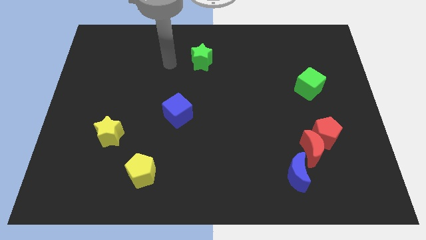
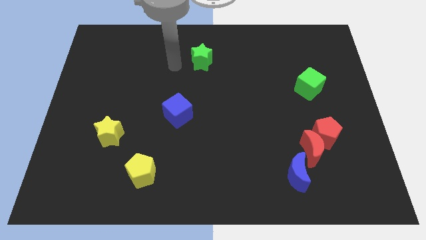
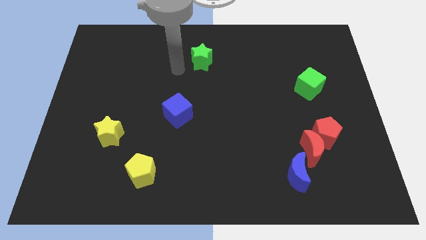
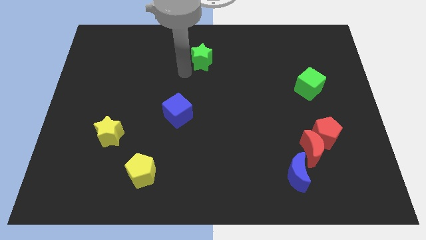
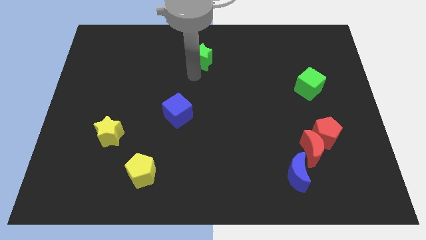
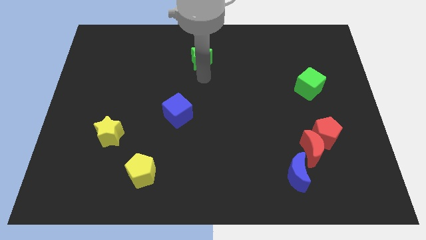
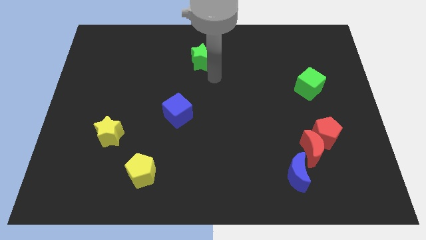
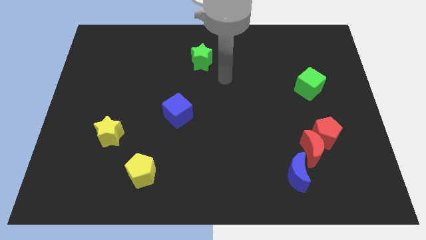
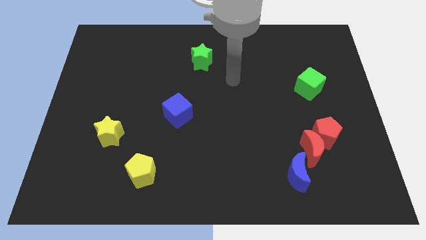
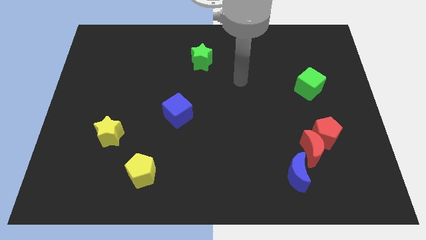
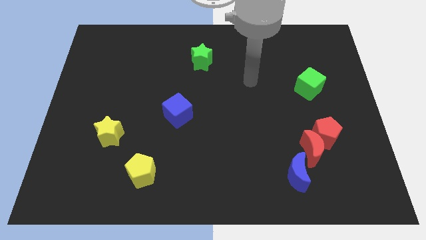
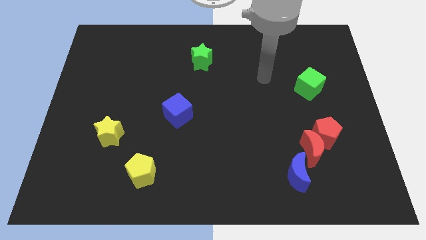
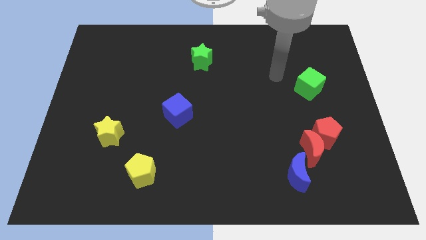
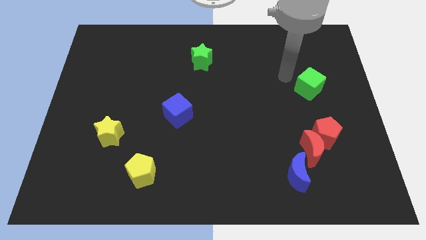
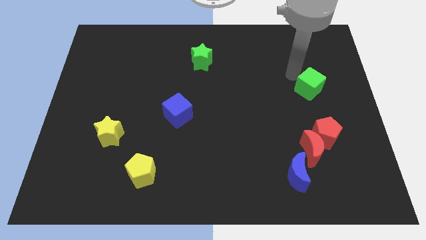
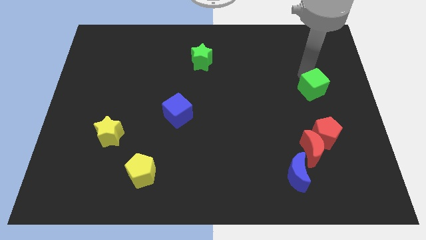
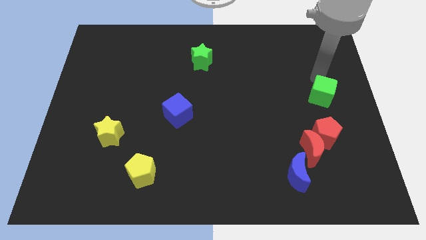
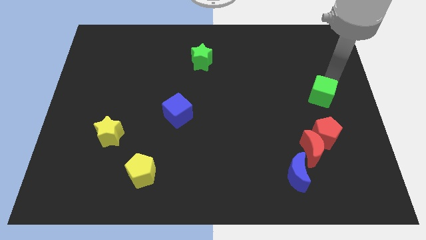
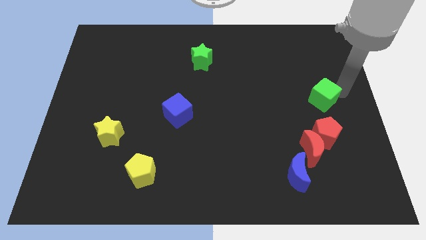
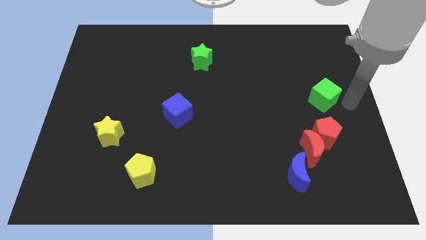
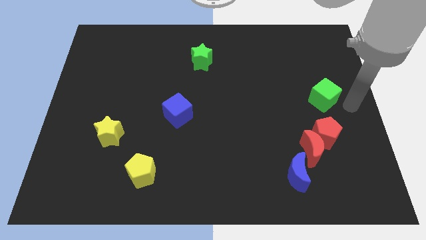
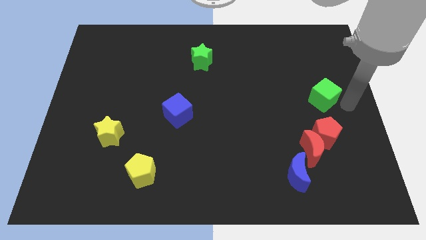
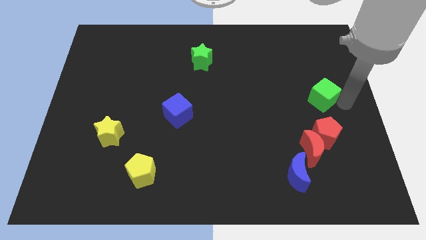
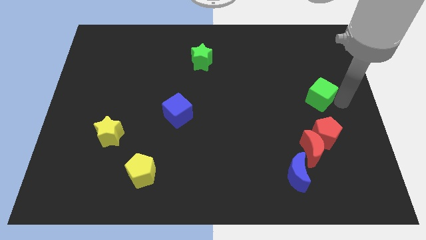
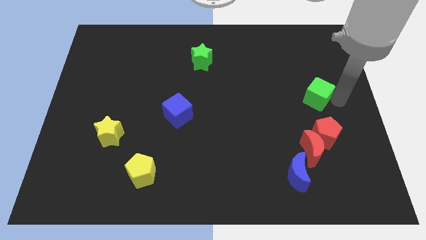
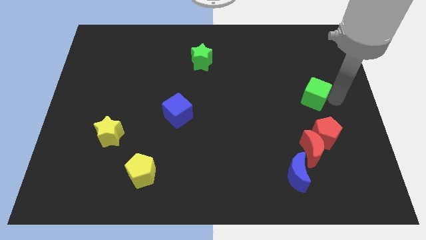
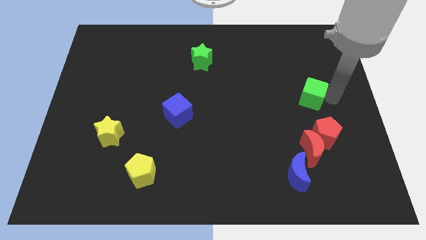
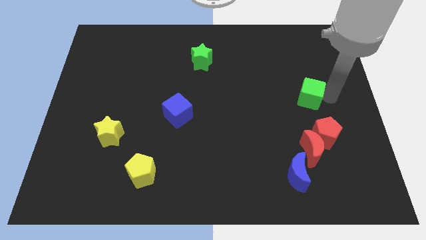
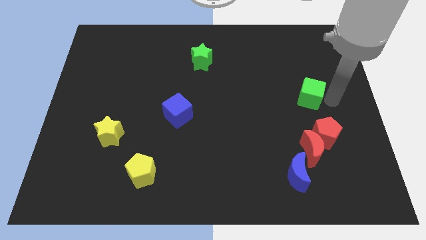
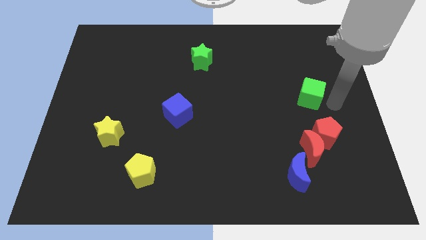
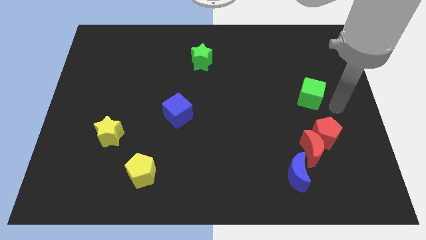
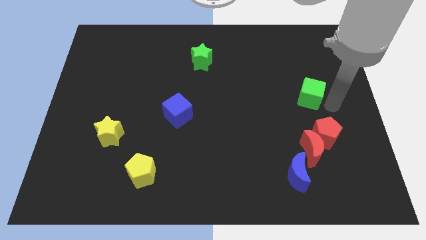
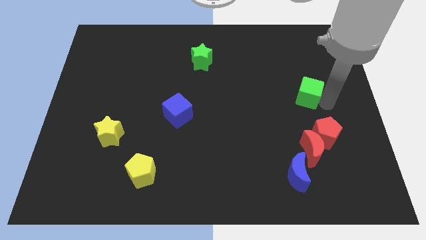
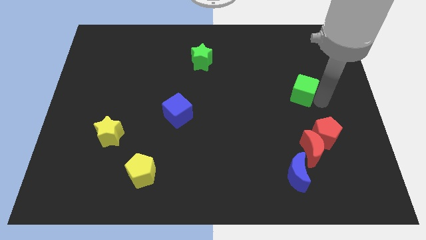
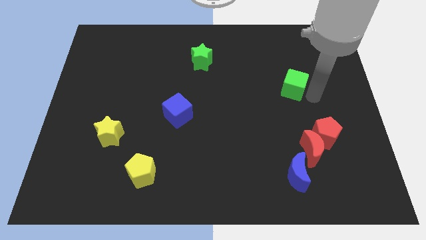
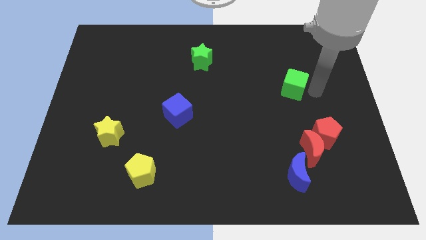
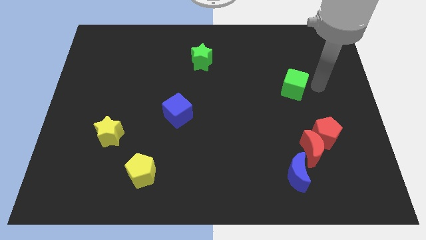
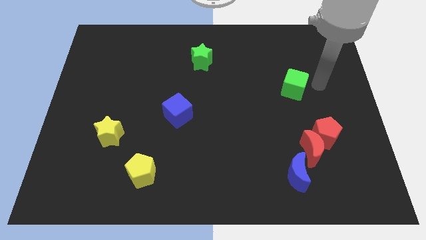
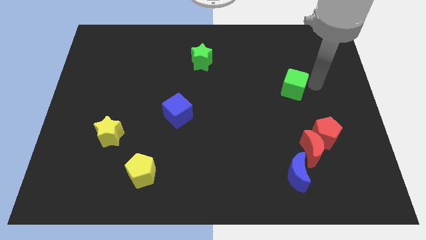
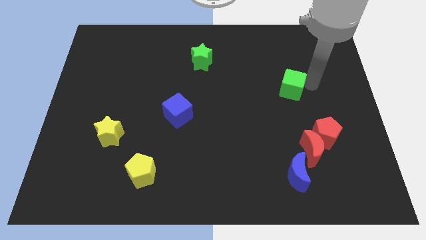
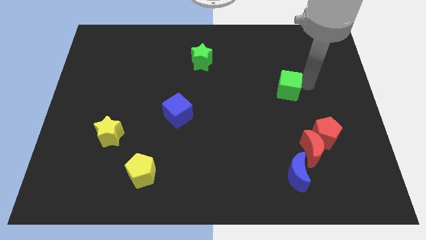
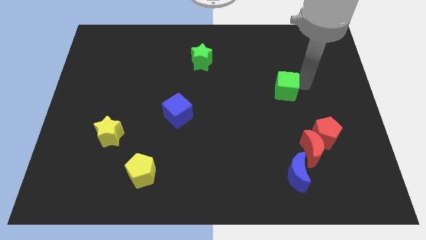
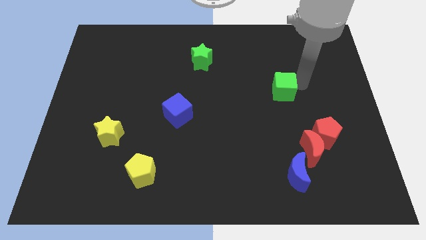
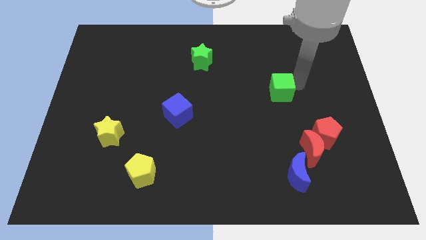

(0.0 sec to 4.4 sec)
slightly slide the green cube left

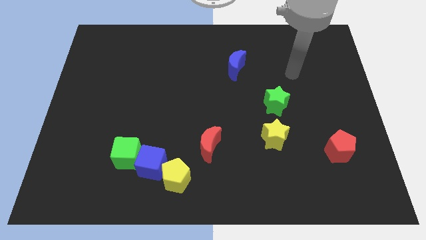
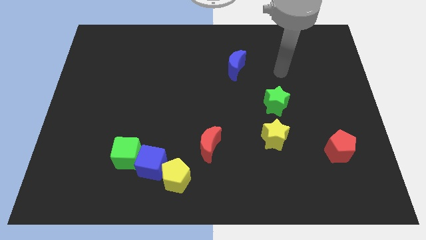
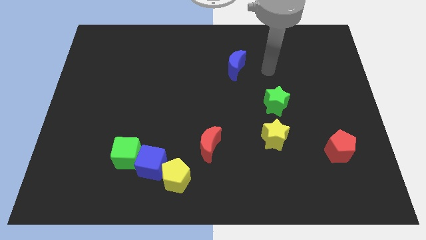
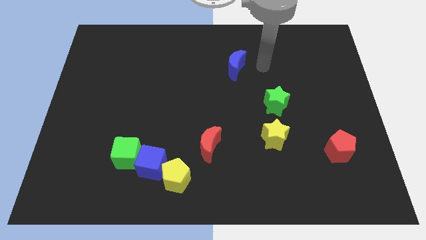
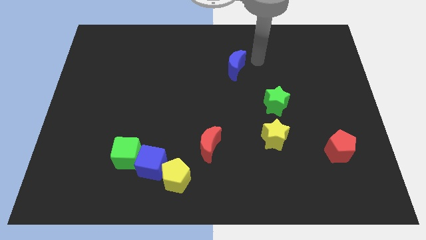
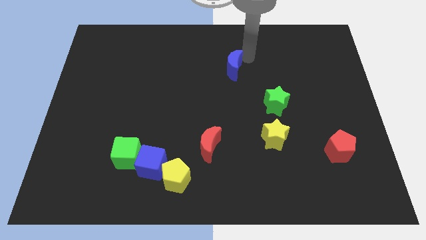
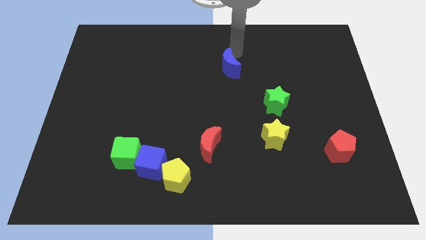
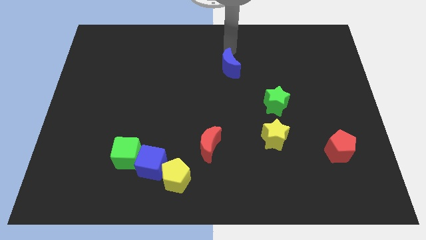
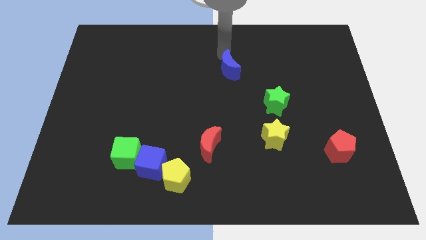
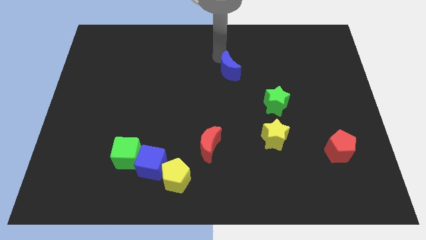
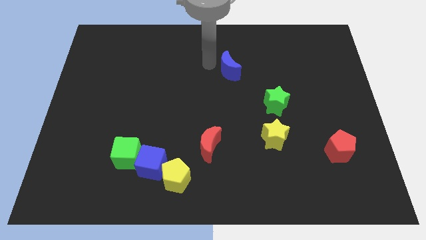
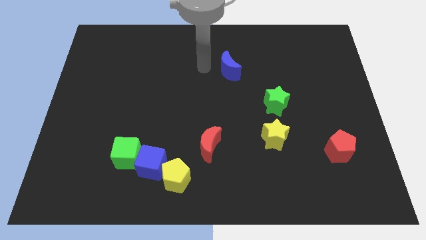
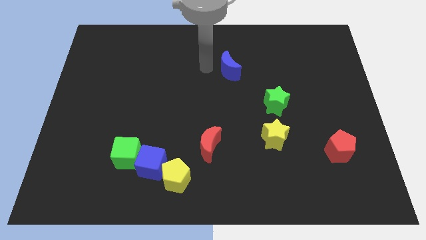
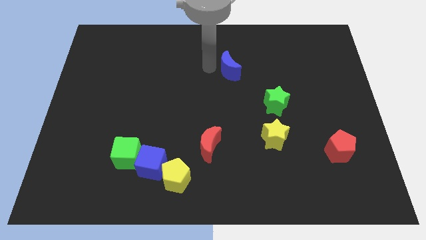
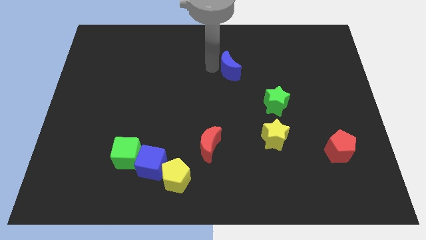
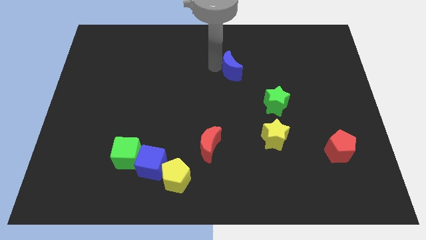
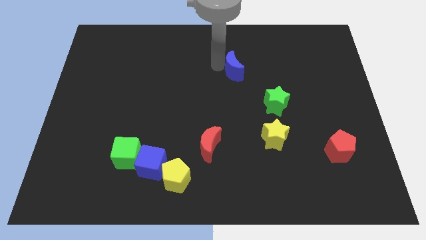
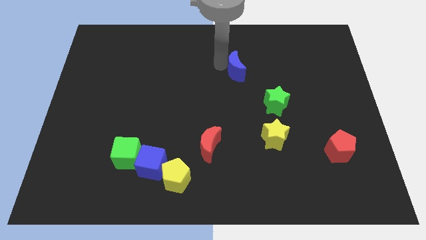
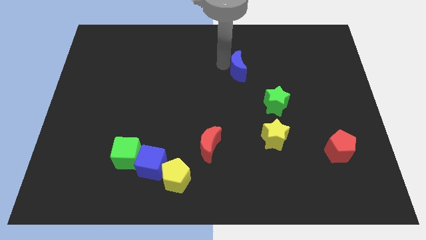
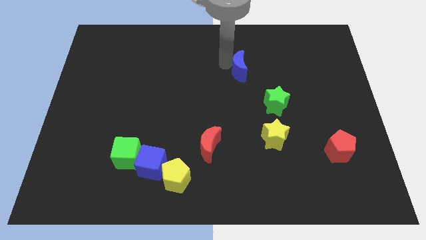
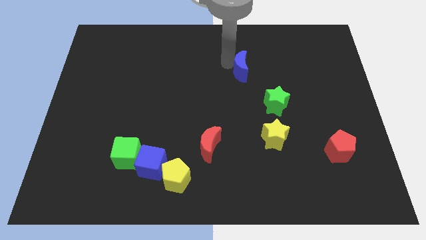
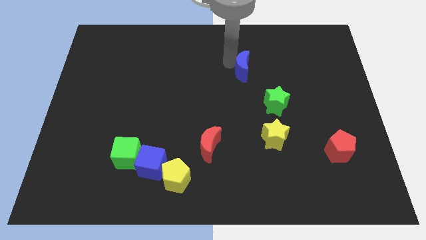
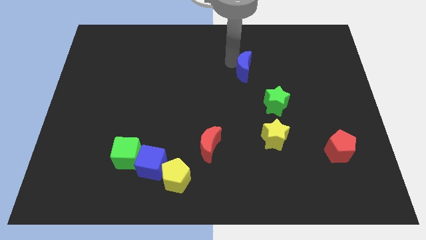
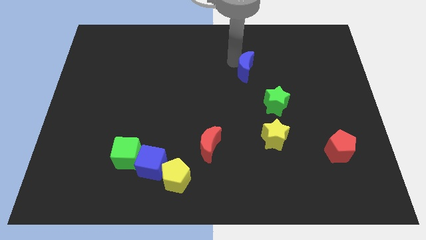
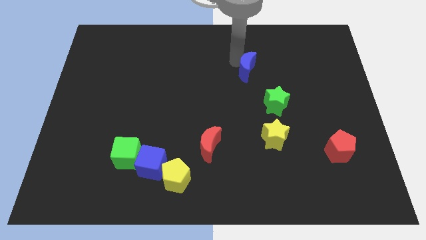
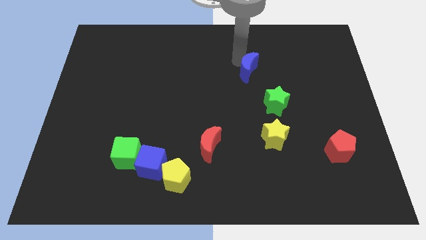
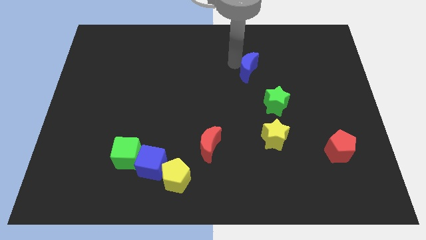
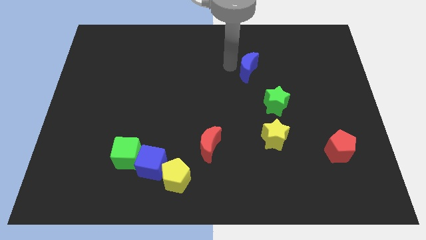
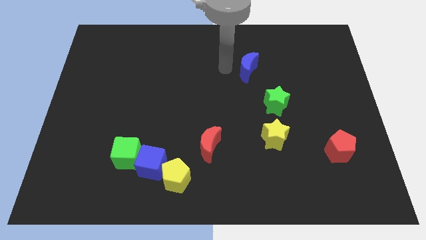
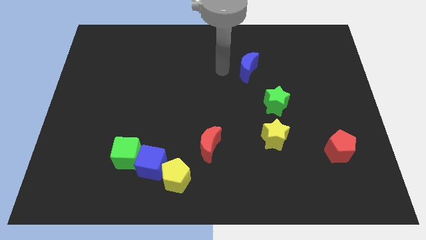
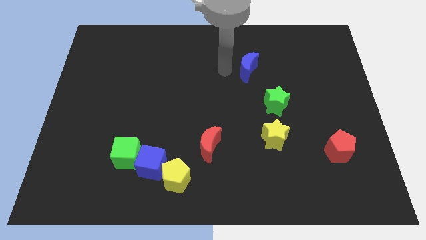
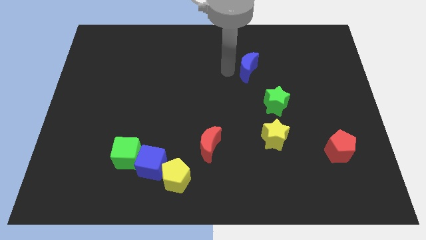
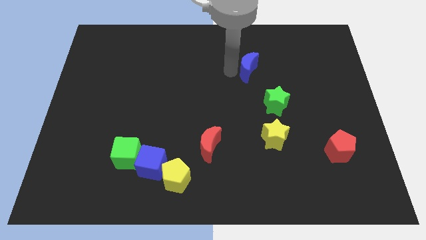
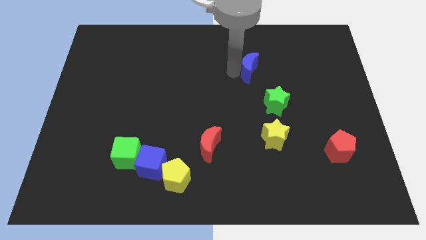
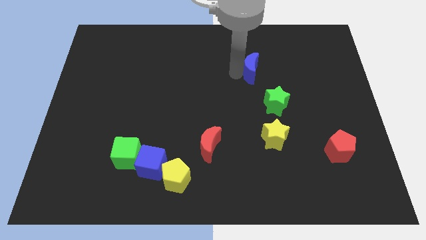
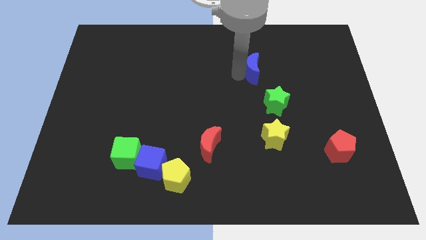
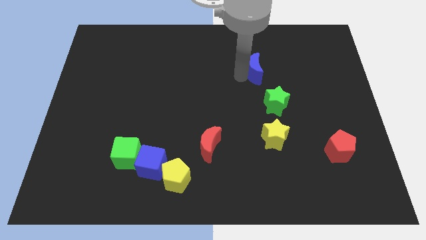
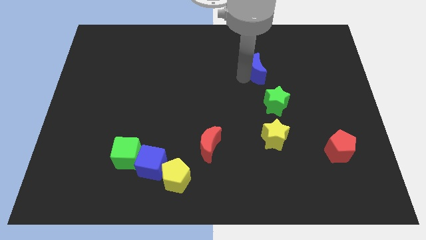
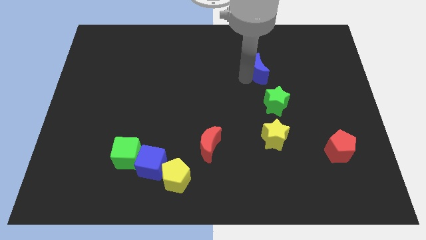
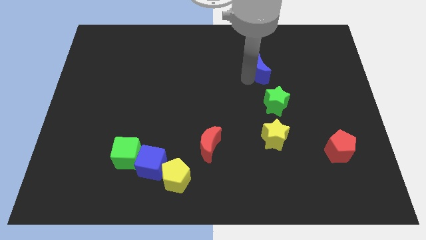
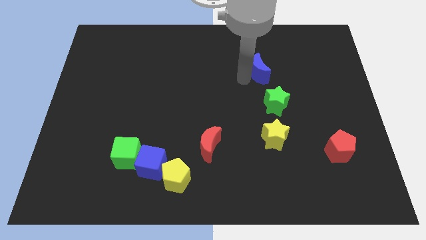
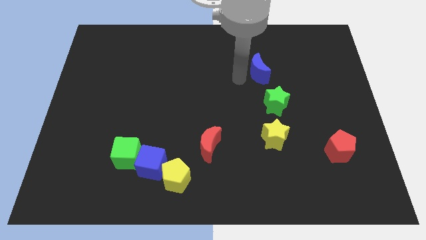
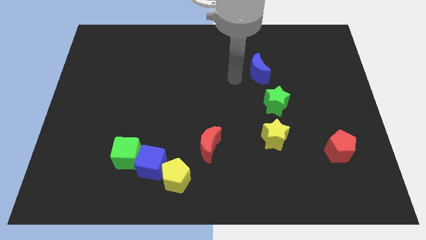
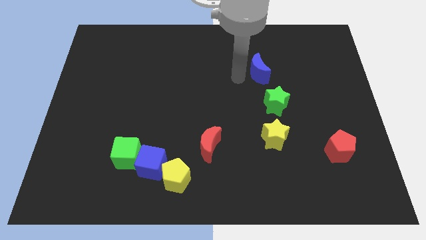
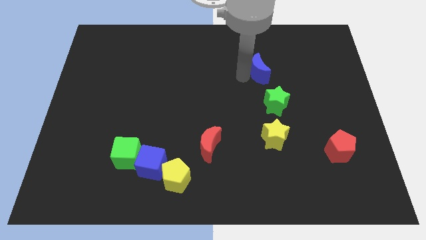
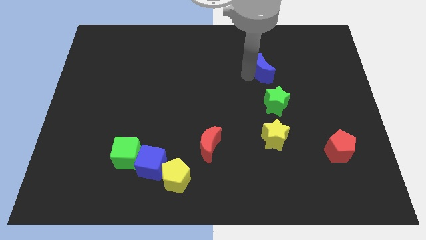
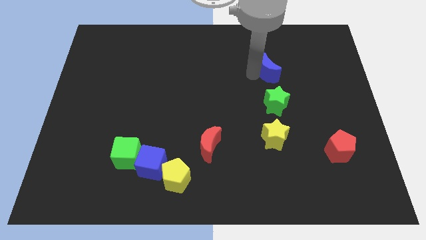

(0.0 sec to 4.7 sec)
push the blue moon right a bit
